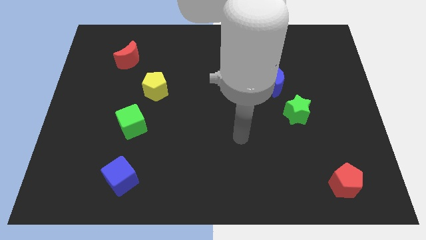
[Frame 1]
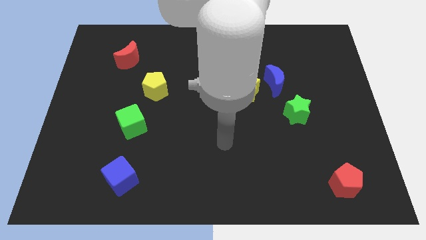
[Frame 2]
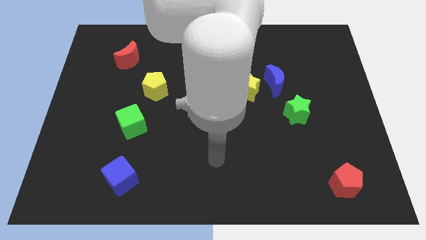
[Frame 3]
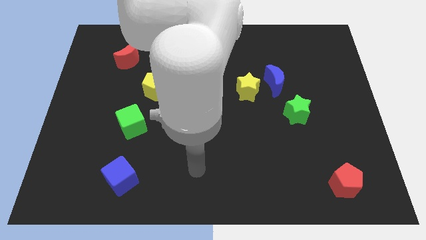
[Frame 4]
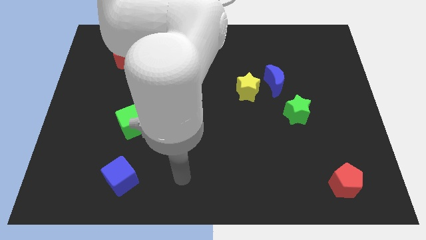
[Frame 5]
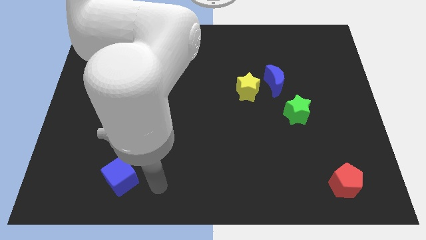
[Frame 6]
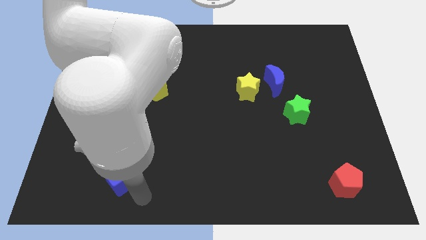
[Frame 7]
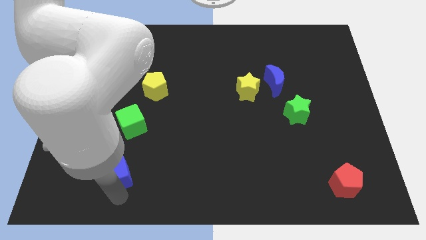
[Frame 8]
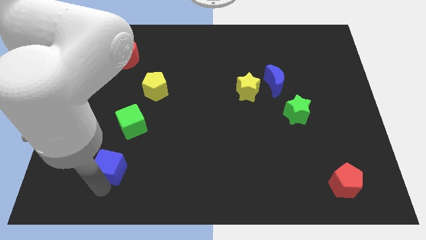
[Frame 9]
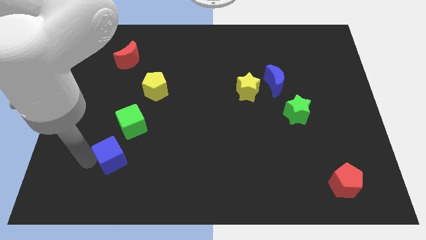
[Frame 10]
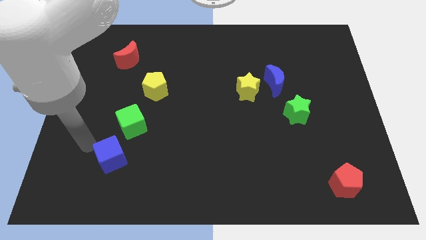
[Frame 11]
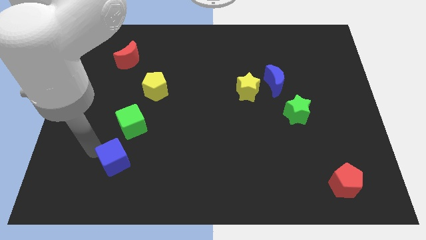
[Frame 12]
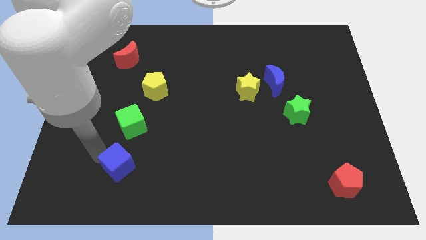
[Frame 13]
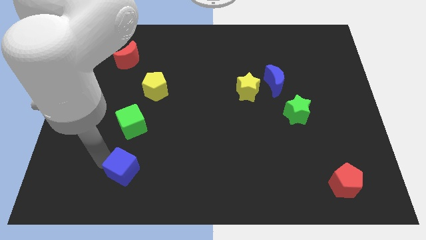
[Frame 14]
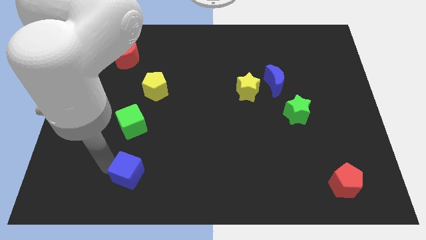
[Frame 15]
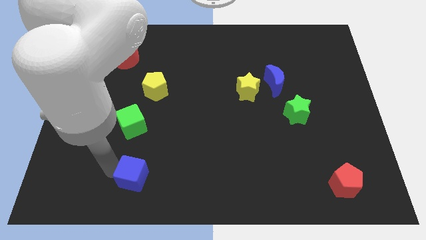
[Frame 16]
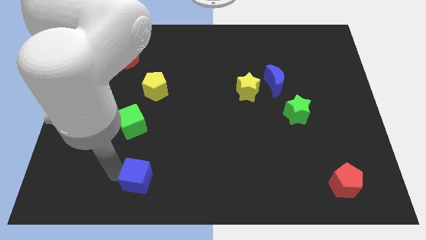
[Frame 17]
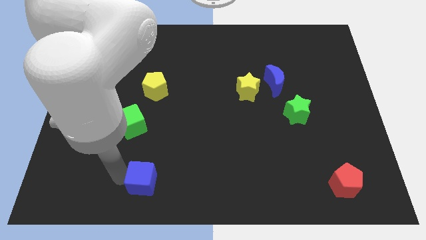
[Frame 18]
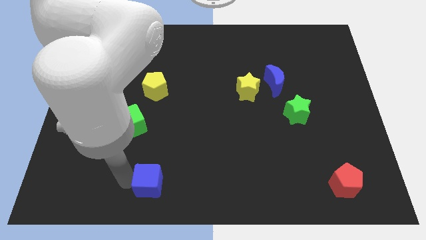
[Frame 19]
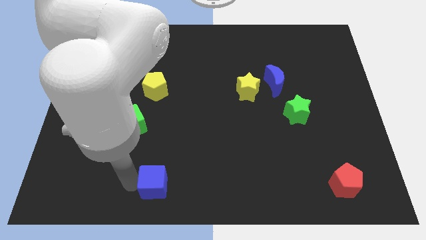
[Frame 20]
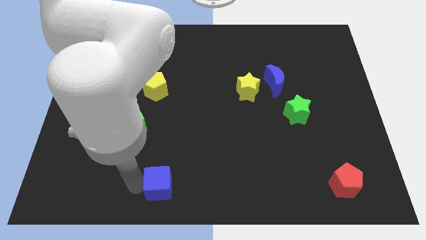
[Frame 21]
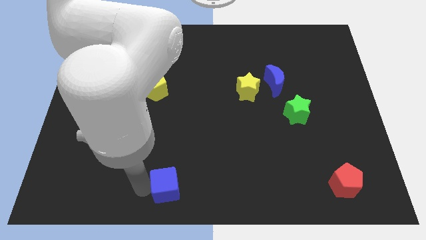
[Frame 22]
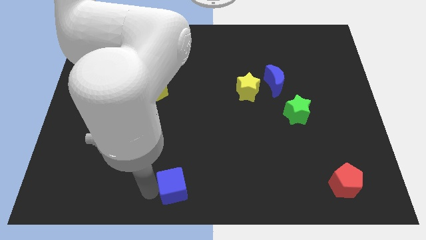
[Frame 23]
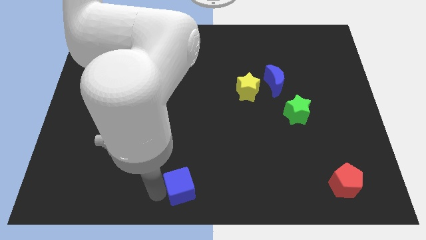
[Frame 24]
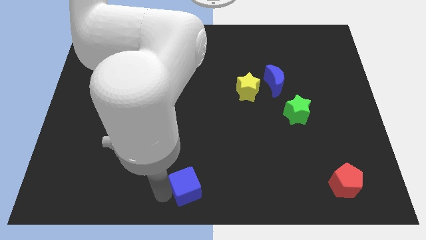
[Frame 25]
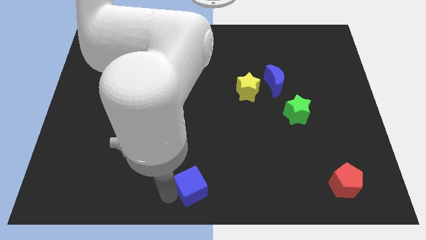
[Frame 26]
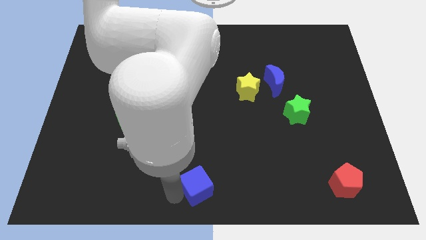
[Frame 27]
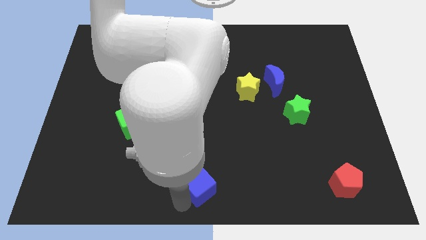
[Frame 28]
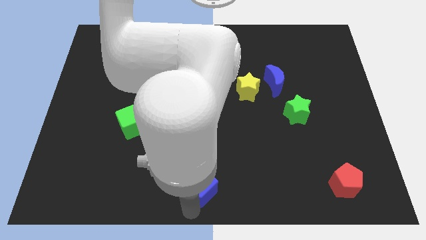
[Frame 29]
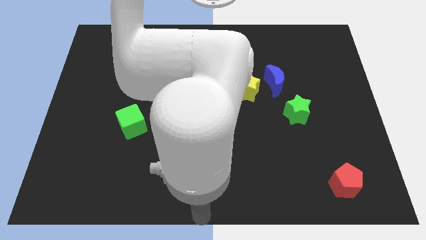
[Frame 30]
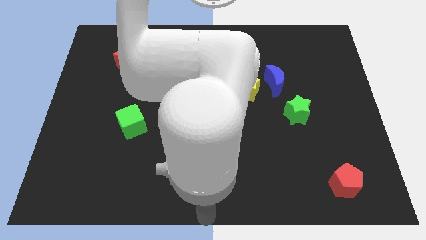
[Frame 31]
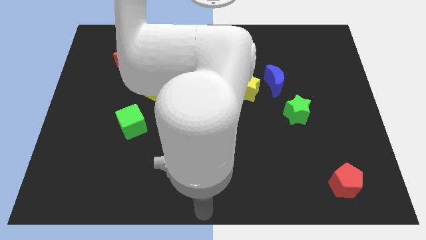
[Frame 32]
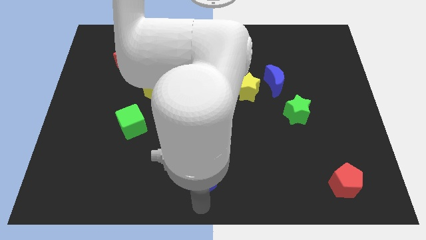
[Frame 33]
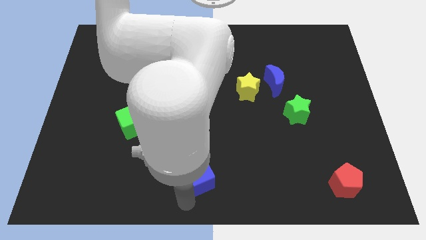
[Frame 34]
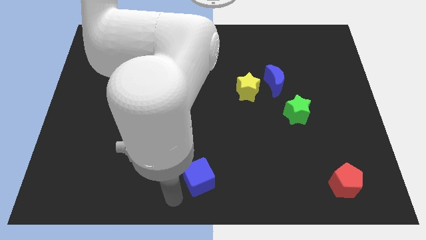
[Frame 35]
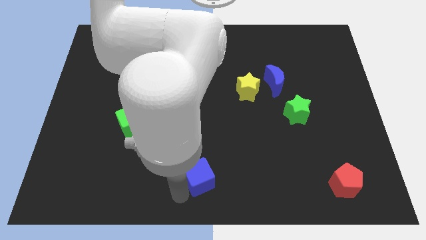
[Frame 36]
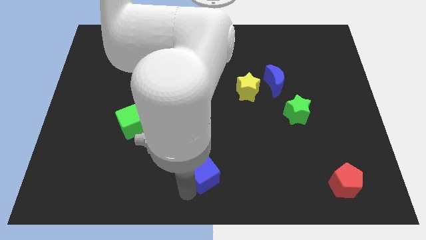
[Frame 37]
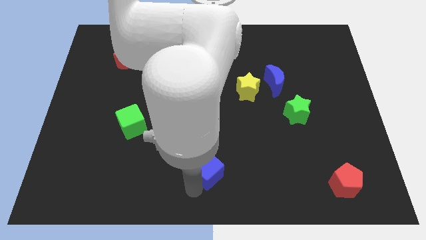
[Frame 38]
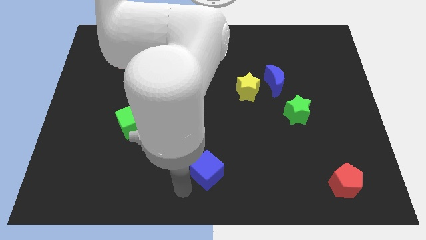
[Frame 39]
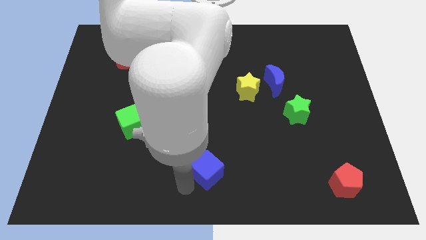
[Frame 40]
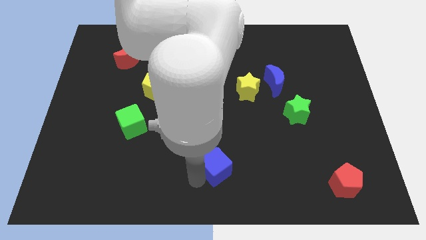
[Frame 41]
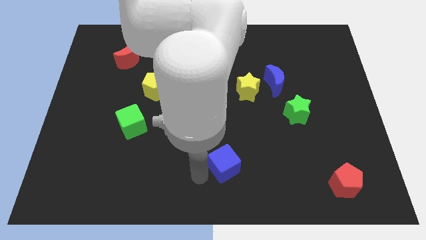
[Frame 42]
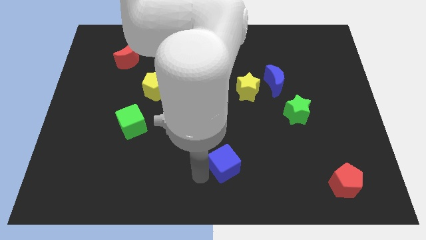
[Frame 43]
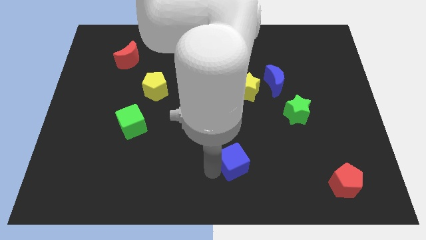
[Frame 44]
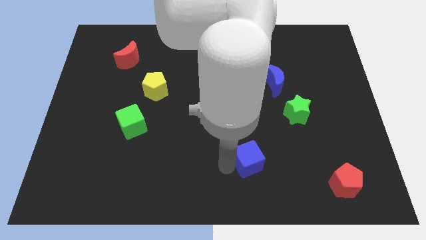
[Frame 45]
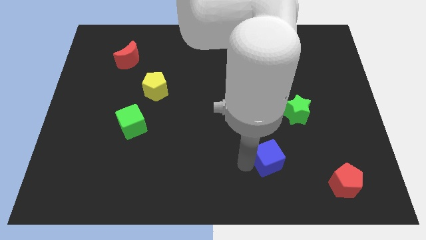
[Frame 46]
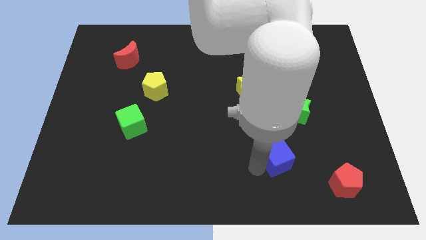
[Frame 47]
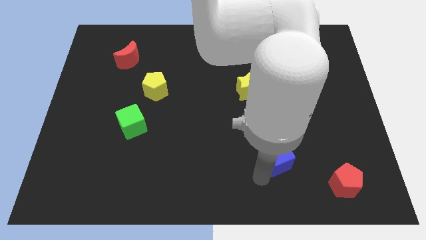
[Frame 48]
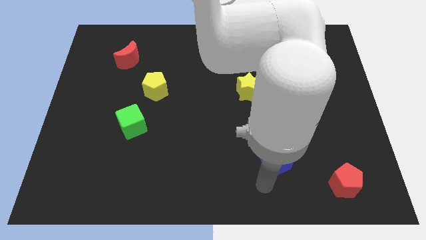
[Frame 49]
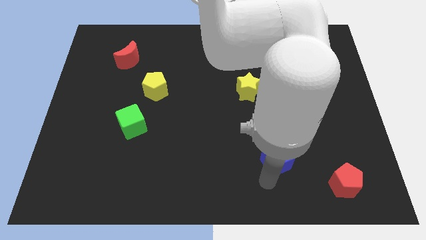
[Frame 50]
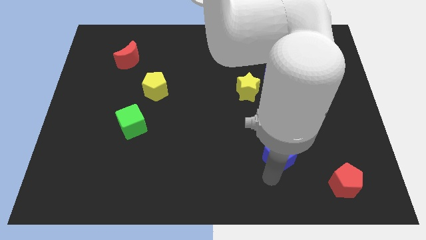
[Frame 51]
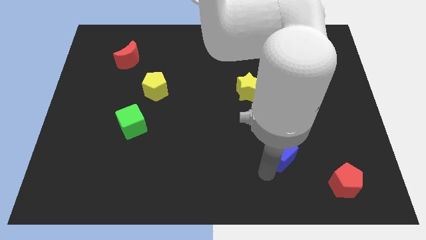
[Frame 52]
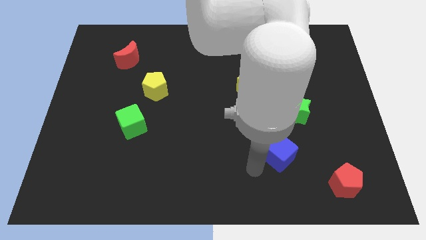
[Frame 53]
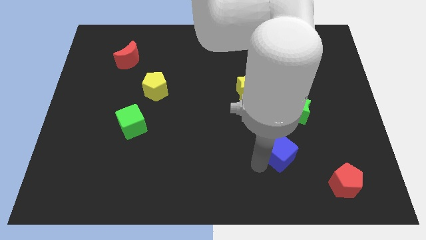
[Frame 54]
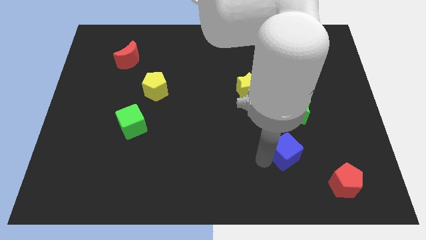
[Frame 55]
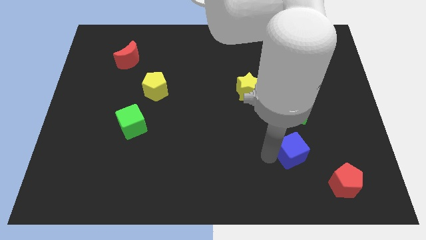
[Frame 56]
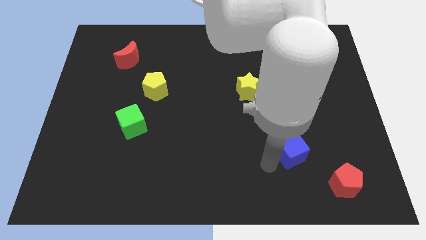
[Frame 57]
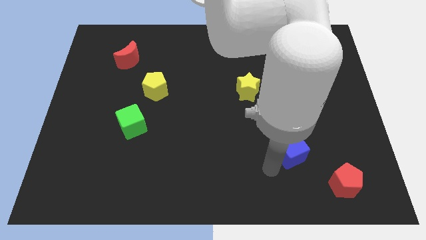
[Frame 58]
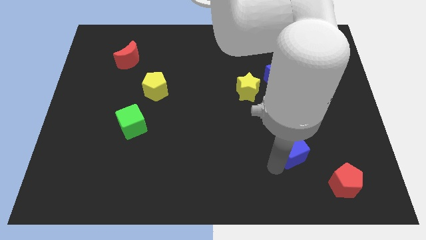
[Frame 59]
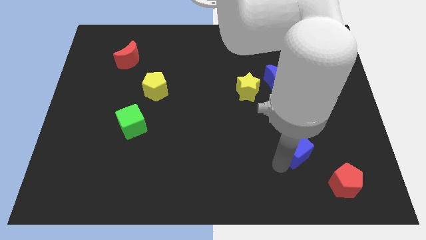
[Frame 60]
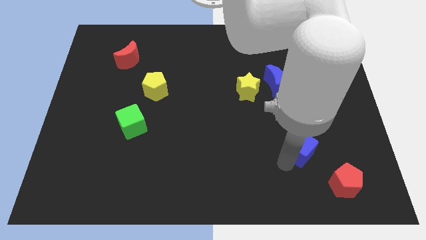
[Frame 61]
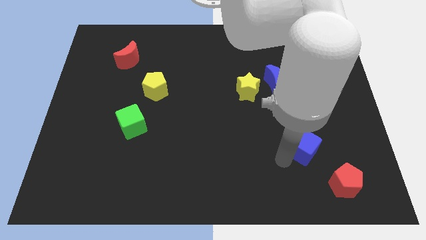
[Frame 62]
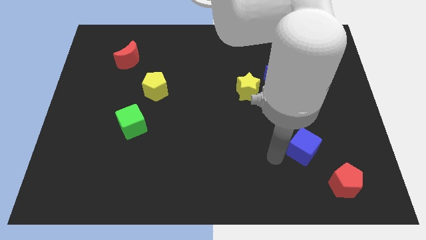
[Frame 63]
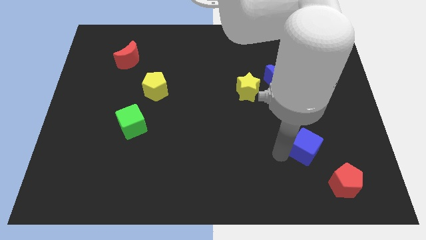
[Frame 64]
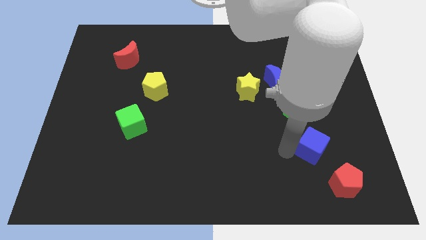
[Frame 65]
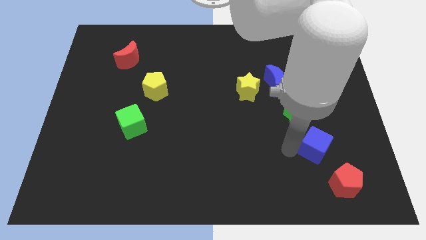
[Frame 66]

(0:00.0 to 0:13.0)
push the blue cube above the red pentagon
